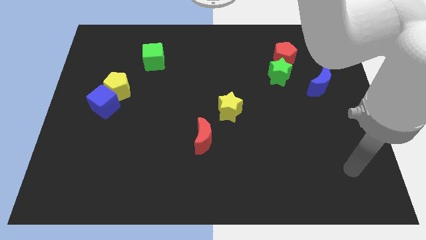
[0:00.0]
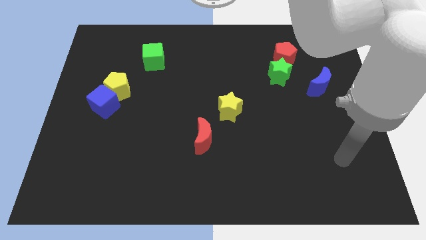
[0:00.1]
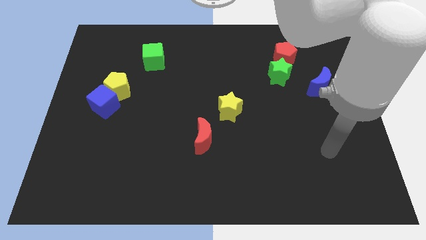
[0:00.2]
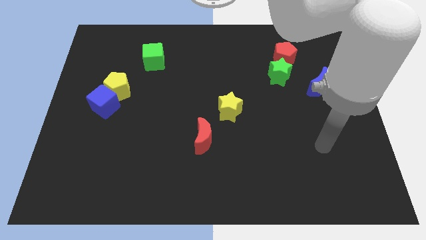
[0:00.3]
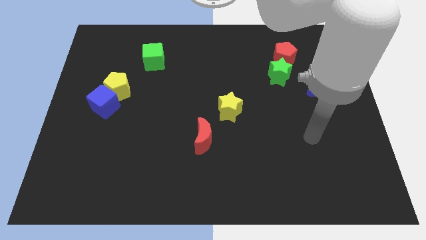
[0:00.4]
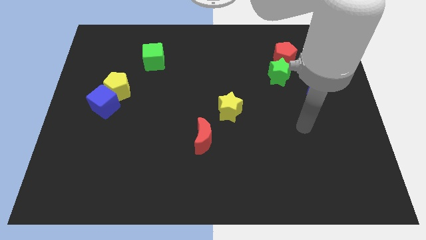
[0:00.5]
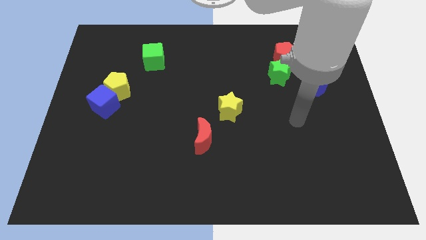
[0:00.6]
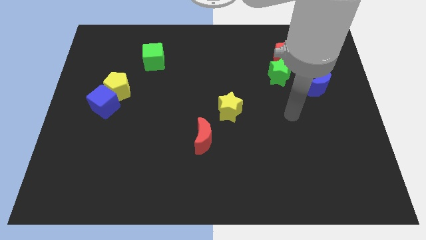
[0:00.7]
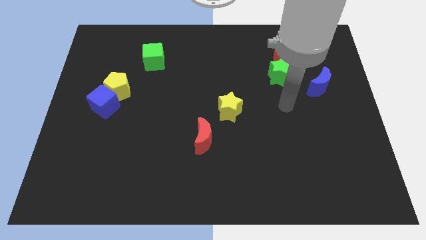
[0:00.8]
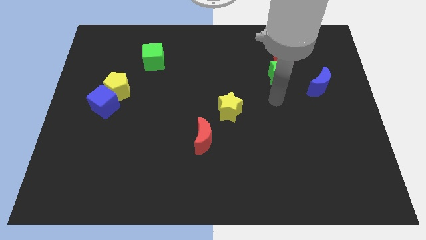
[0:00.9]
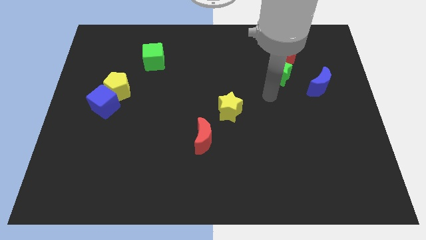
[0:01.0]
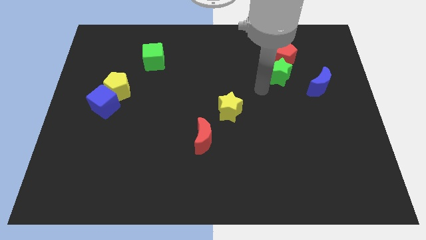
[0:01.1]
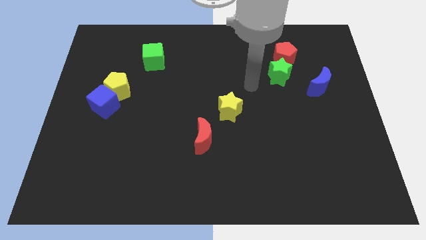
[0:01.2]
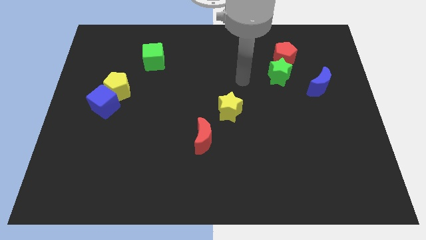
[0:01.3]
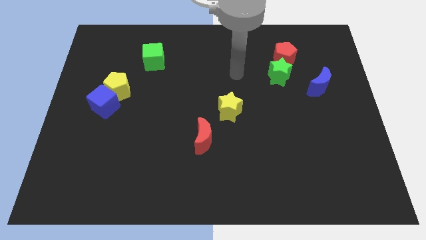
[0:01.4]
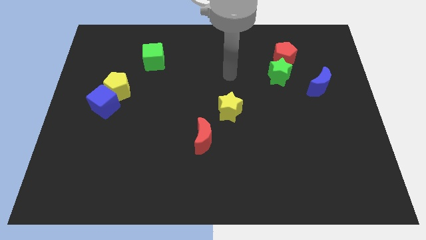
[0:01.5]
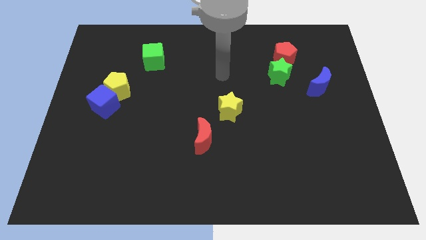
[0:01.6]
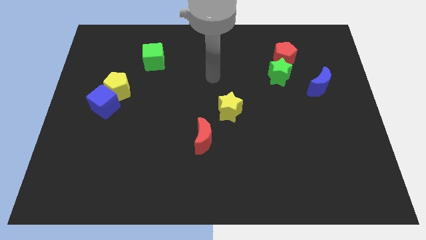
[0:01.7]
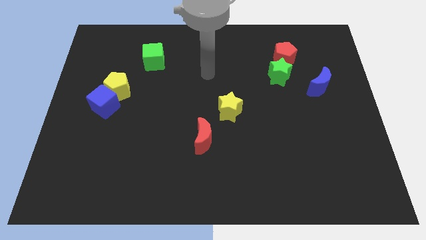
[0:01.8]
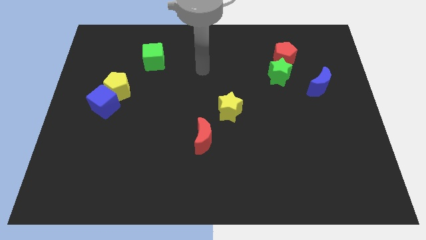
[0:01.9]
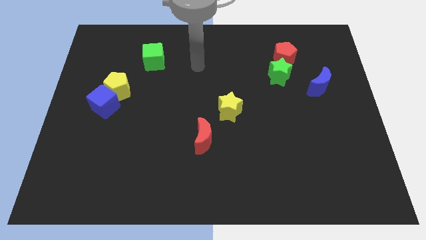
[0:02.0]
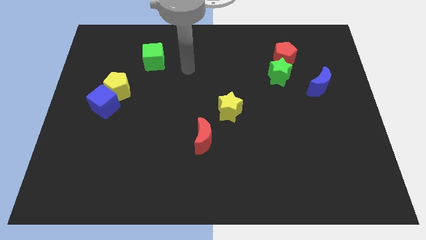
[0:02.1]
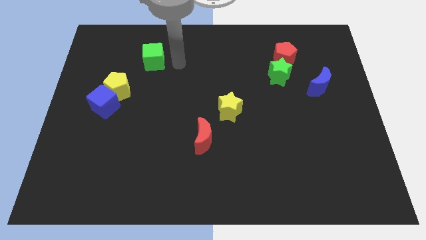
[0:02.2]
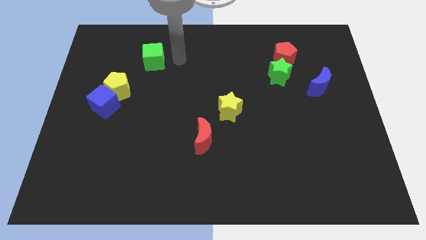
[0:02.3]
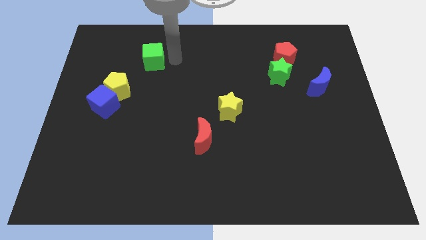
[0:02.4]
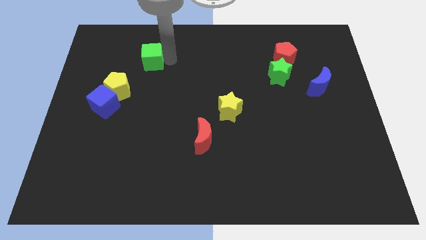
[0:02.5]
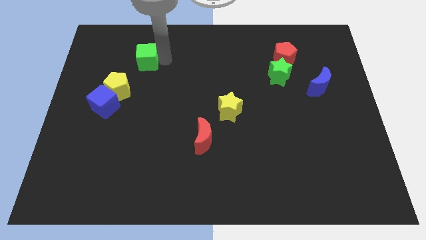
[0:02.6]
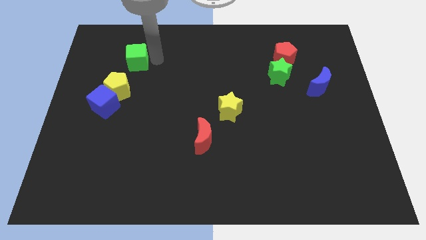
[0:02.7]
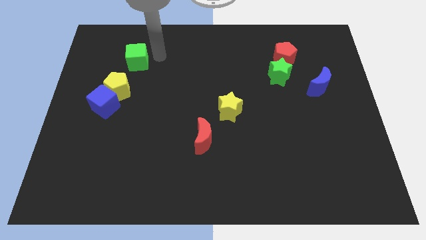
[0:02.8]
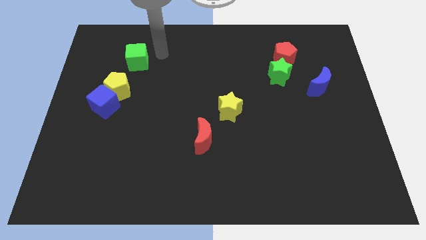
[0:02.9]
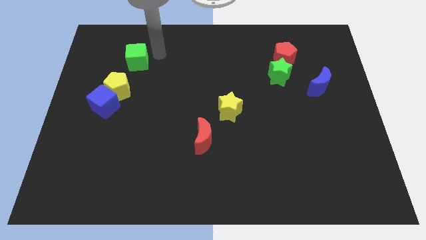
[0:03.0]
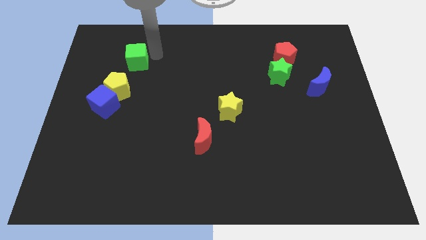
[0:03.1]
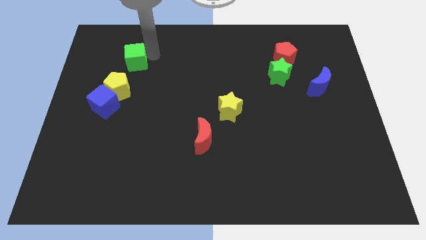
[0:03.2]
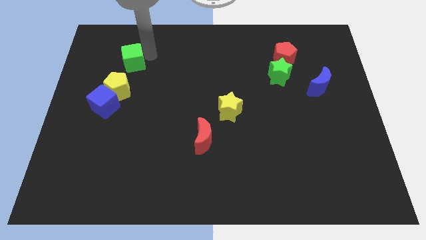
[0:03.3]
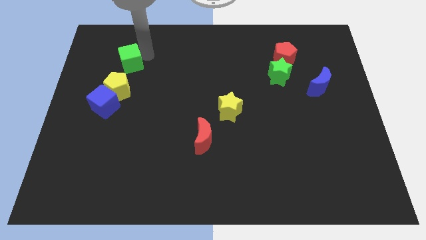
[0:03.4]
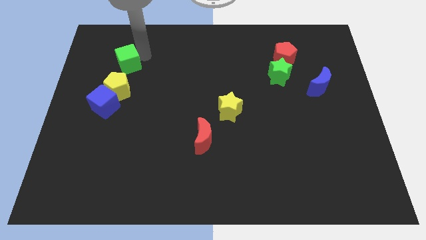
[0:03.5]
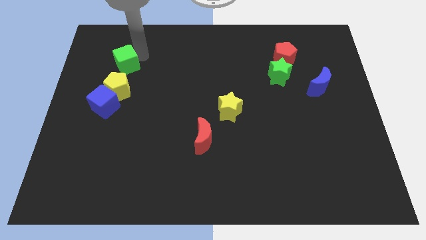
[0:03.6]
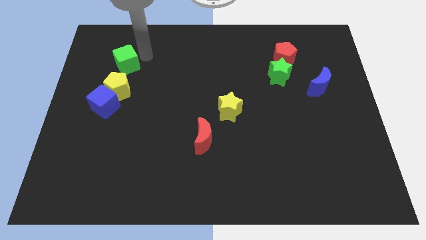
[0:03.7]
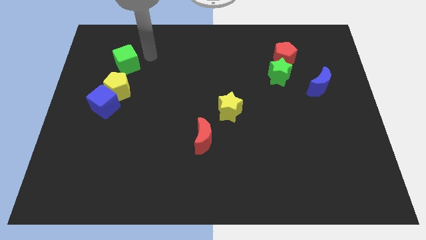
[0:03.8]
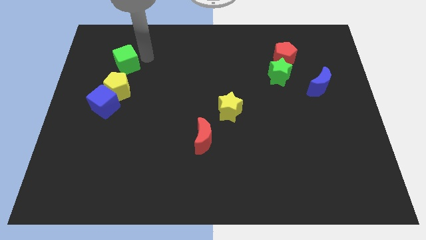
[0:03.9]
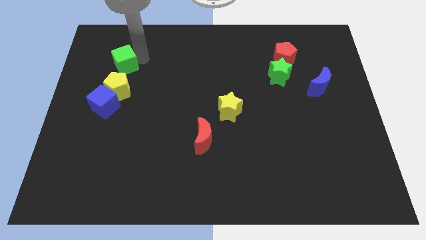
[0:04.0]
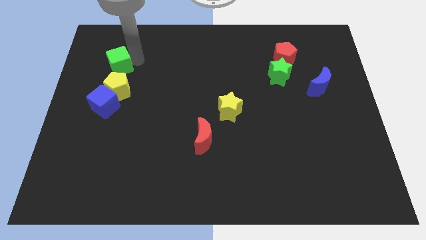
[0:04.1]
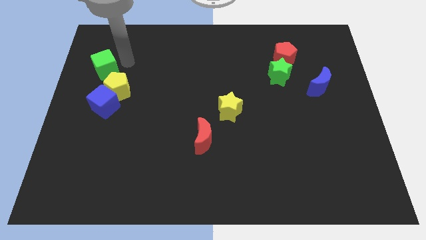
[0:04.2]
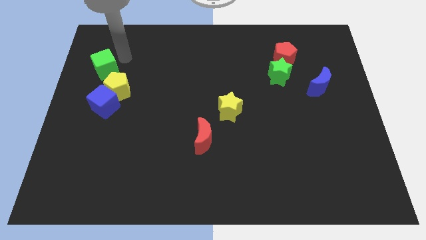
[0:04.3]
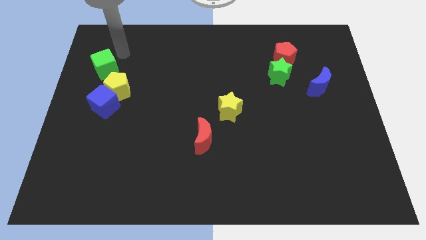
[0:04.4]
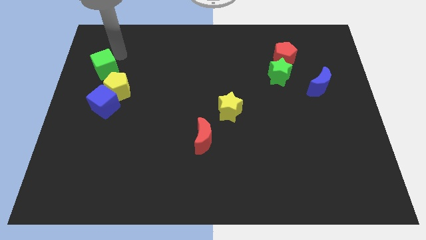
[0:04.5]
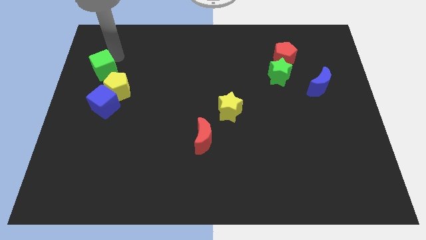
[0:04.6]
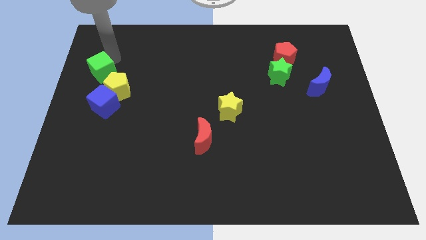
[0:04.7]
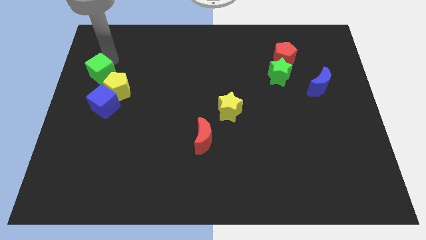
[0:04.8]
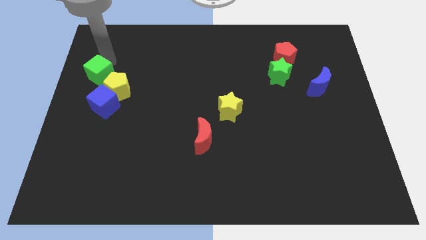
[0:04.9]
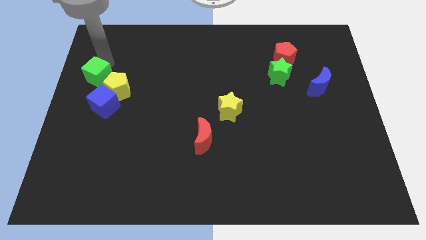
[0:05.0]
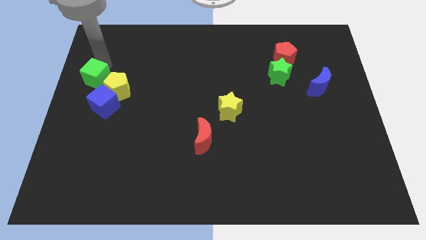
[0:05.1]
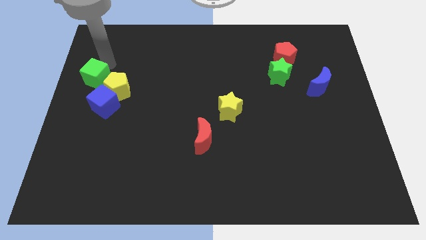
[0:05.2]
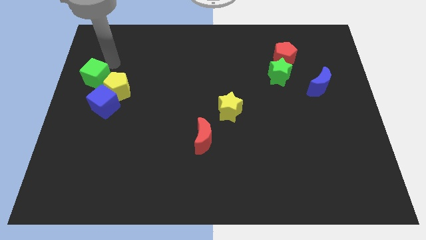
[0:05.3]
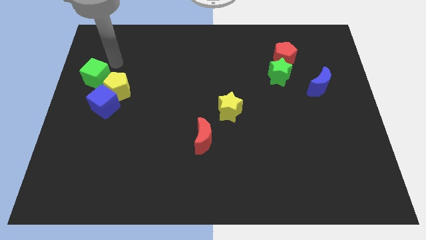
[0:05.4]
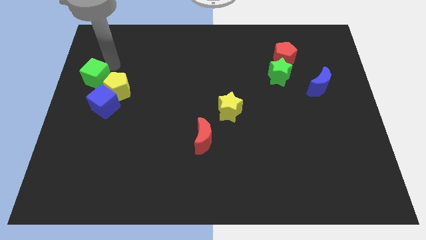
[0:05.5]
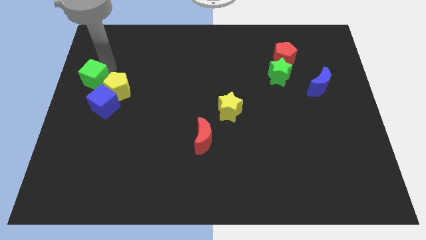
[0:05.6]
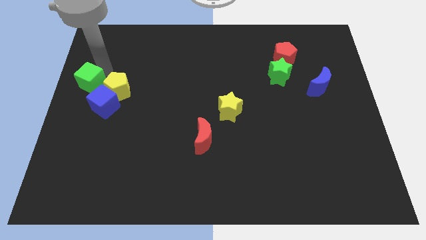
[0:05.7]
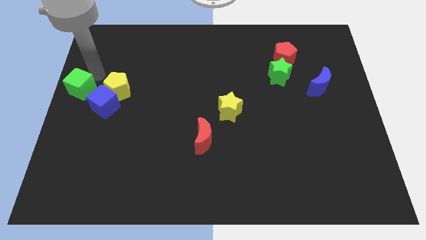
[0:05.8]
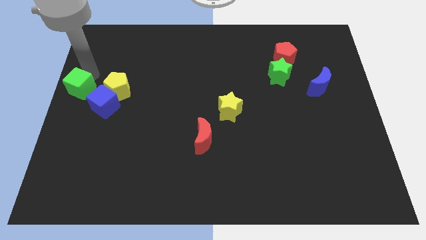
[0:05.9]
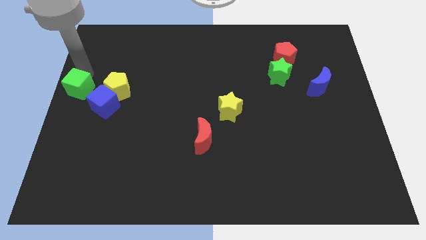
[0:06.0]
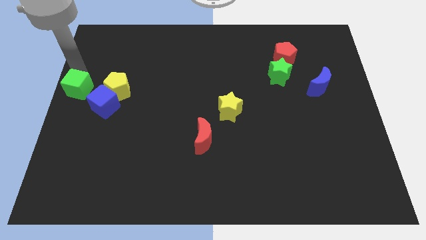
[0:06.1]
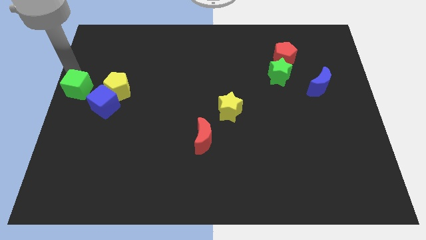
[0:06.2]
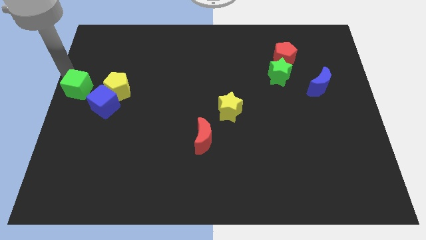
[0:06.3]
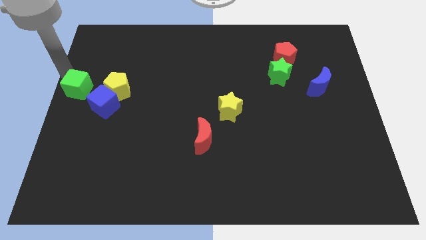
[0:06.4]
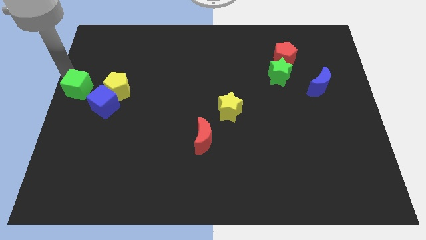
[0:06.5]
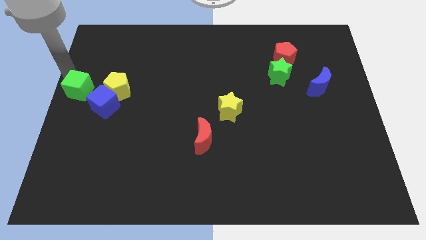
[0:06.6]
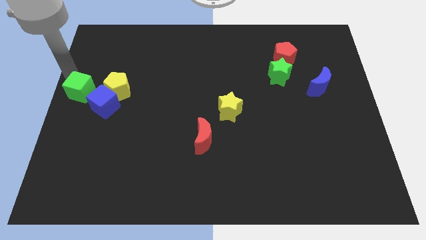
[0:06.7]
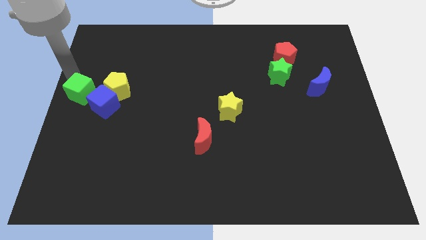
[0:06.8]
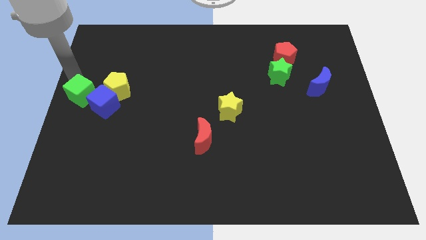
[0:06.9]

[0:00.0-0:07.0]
push the green cube diagonally down and to the left of the yellow pentagon

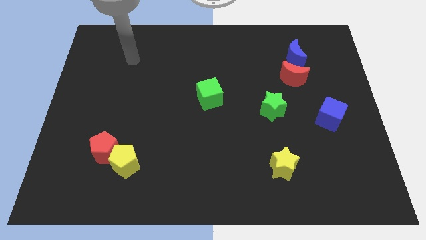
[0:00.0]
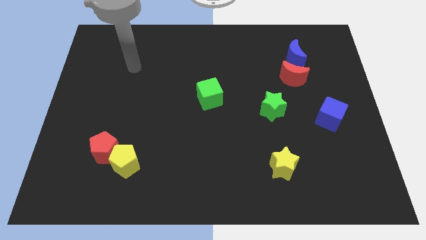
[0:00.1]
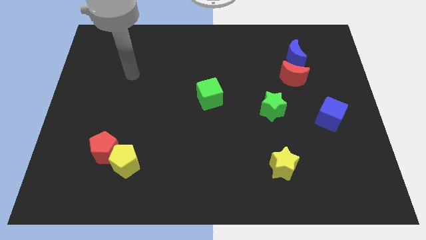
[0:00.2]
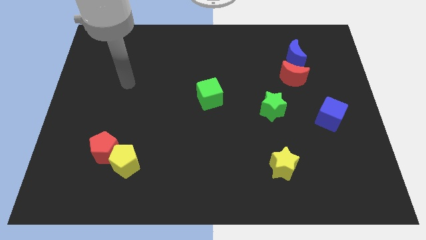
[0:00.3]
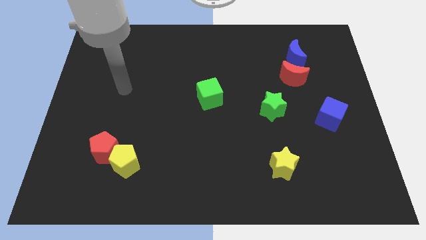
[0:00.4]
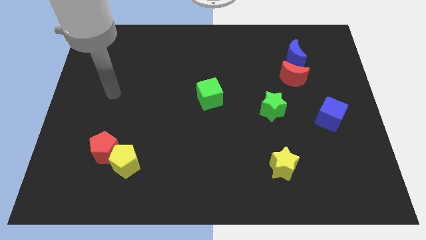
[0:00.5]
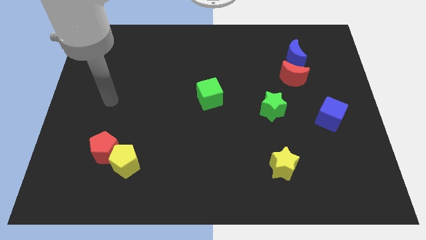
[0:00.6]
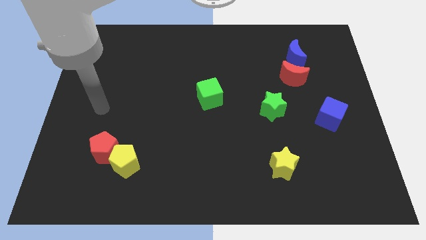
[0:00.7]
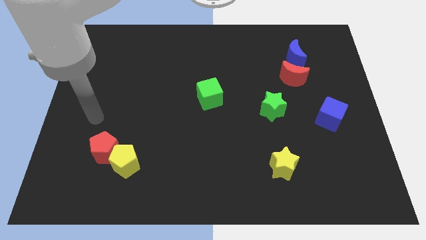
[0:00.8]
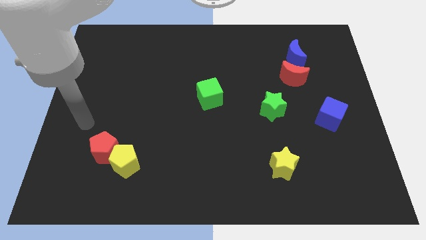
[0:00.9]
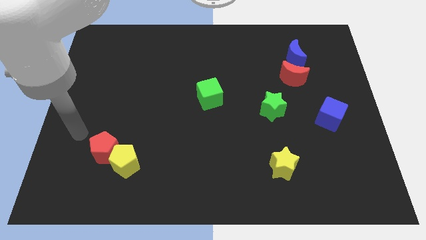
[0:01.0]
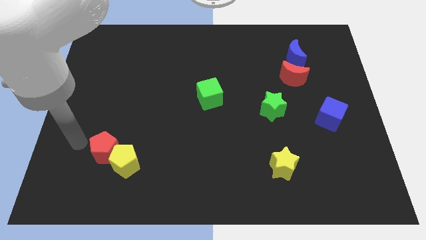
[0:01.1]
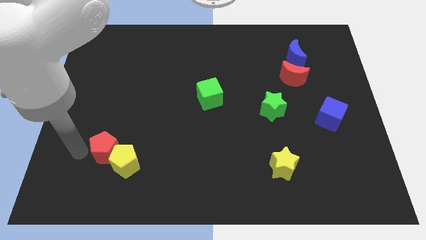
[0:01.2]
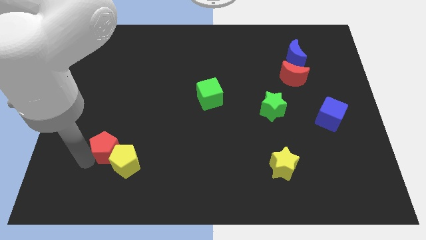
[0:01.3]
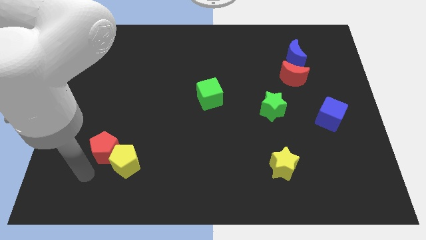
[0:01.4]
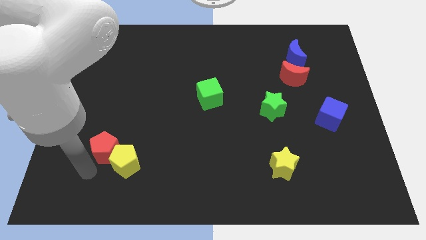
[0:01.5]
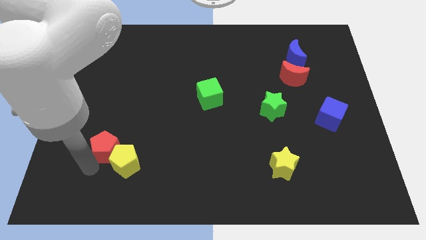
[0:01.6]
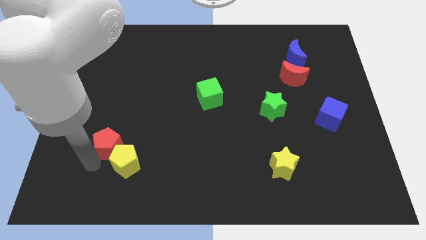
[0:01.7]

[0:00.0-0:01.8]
slide the red pentagon to the top of the yellow pentagon
